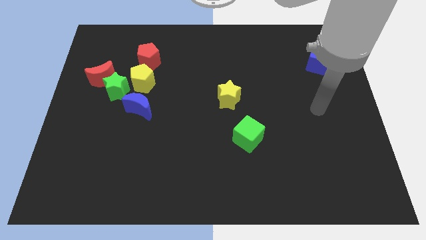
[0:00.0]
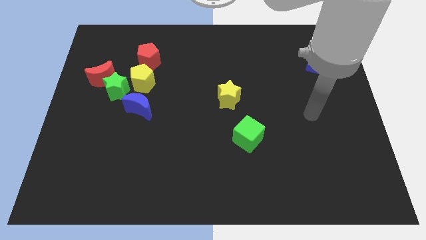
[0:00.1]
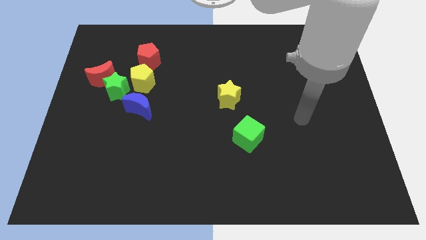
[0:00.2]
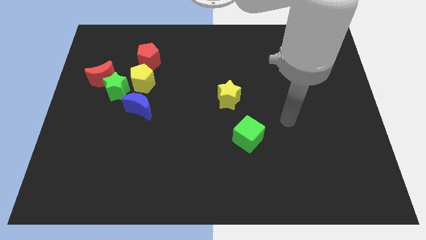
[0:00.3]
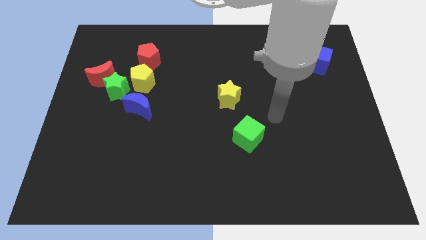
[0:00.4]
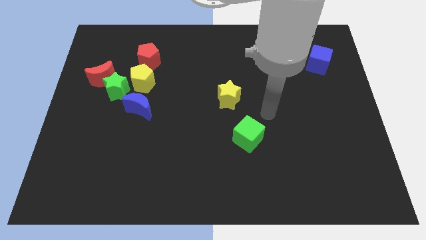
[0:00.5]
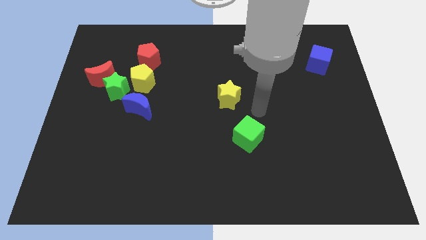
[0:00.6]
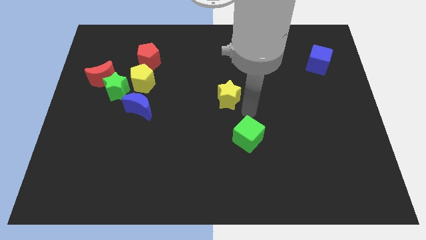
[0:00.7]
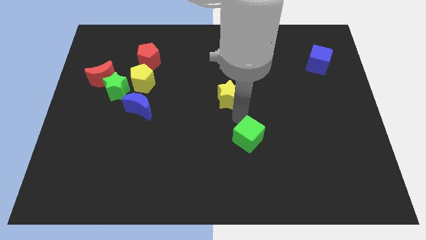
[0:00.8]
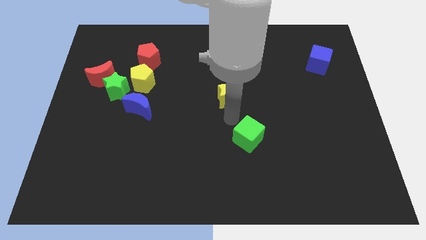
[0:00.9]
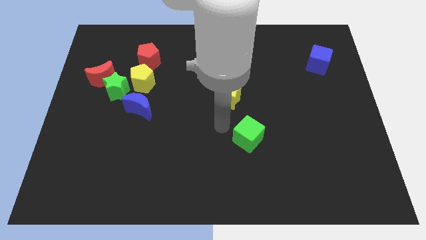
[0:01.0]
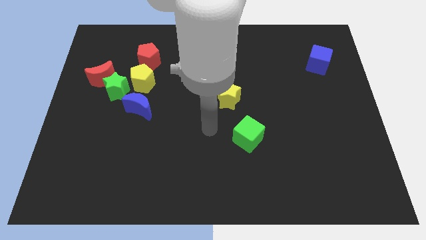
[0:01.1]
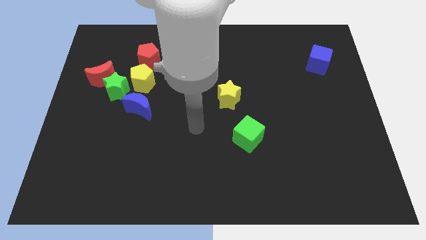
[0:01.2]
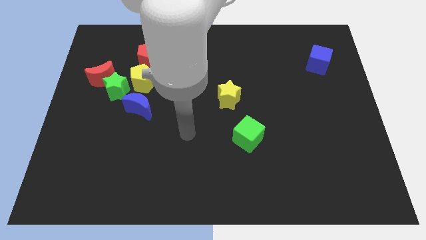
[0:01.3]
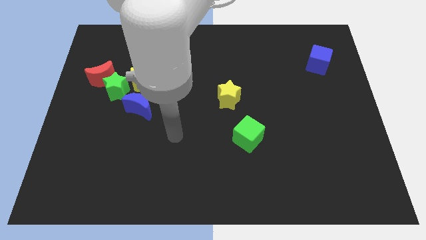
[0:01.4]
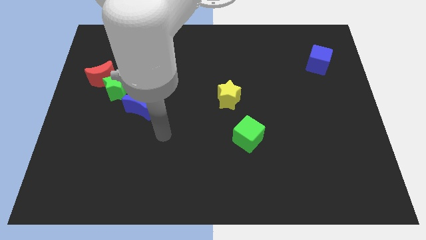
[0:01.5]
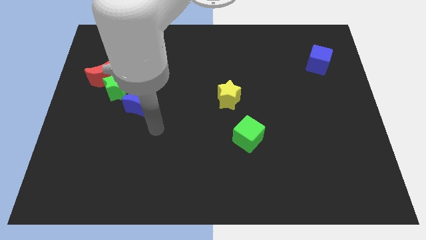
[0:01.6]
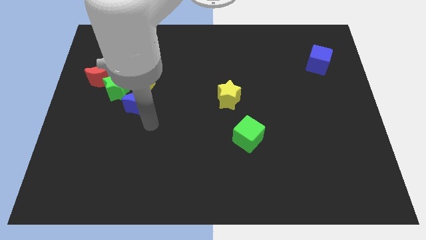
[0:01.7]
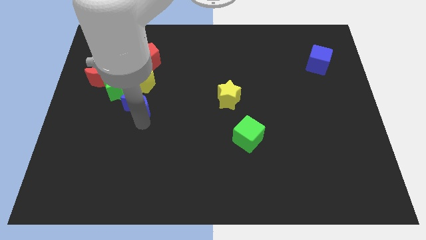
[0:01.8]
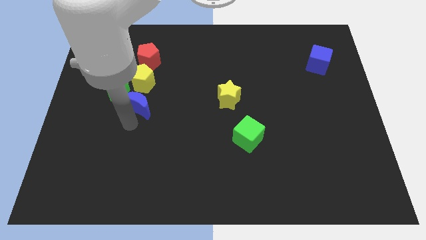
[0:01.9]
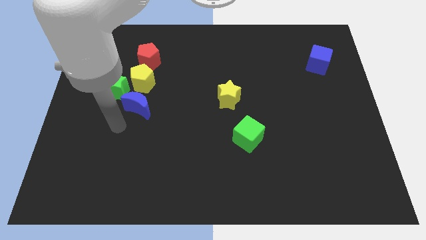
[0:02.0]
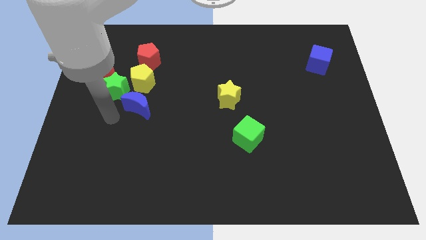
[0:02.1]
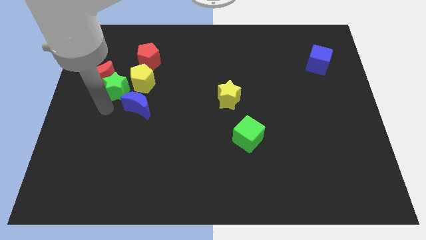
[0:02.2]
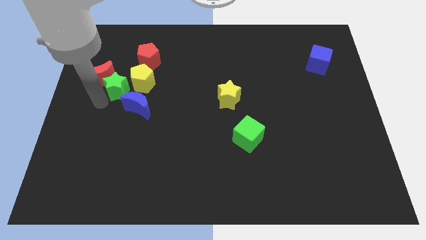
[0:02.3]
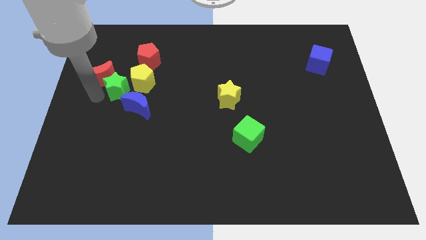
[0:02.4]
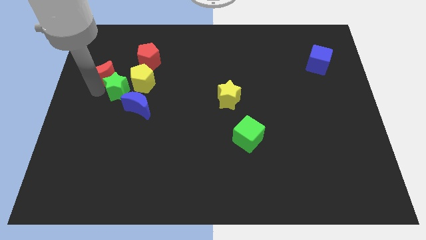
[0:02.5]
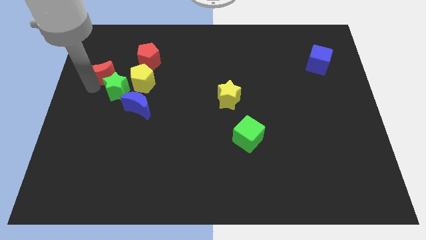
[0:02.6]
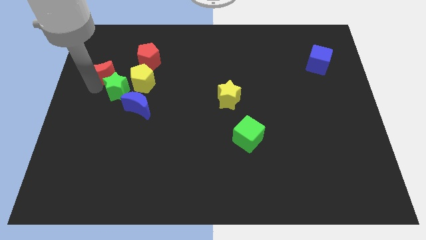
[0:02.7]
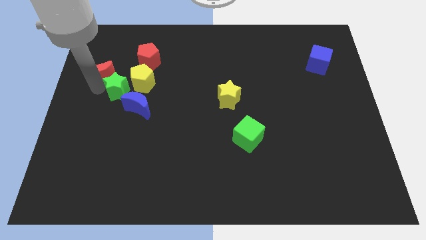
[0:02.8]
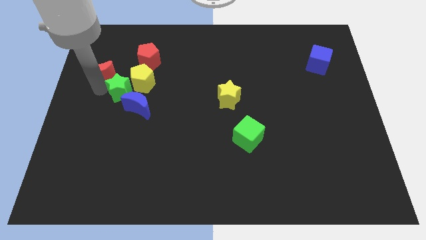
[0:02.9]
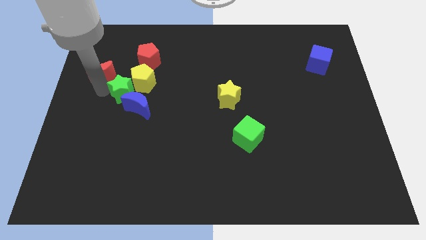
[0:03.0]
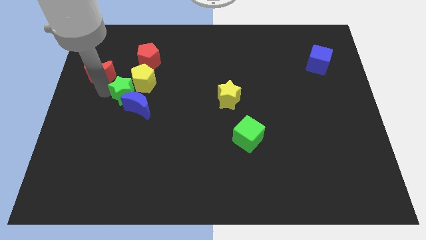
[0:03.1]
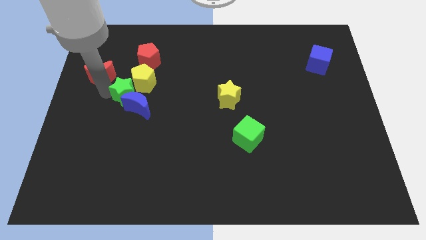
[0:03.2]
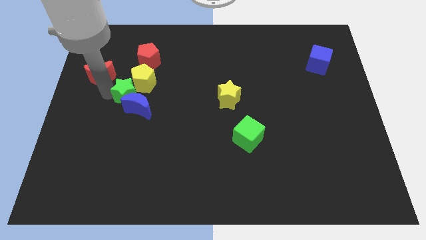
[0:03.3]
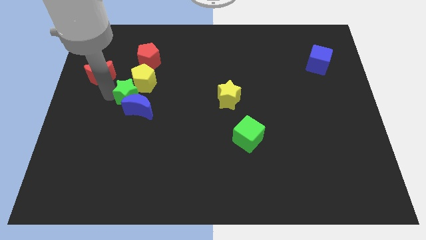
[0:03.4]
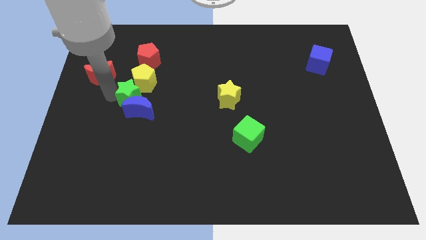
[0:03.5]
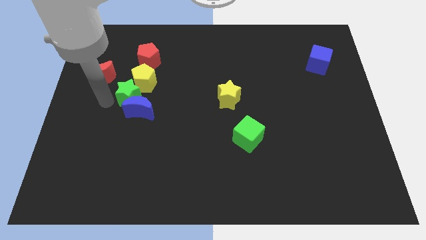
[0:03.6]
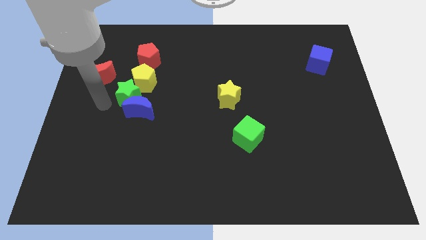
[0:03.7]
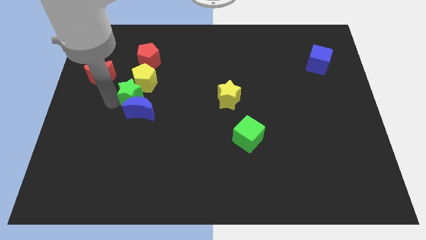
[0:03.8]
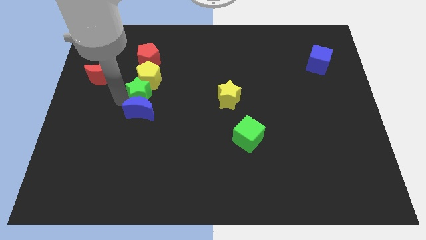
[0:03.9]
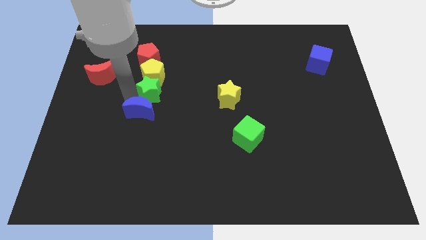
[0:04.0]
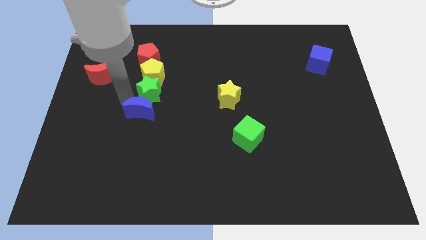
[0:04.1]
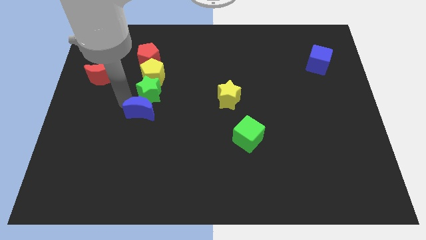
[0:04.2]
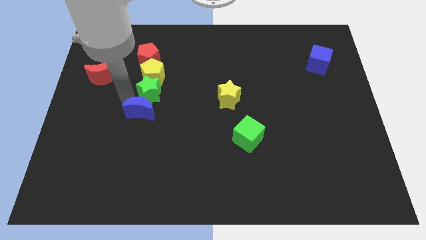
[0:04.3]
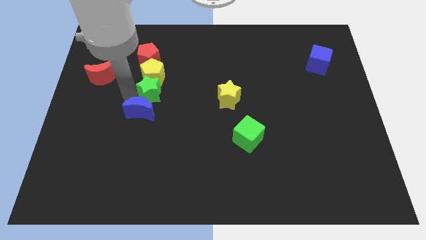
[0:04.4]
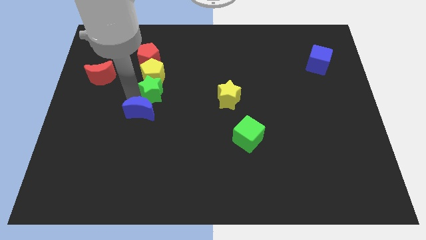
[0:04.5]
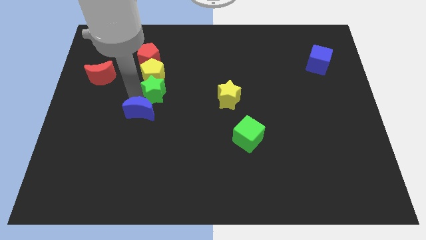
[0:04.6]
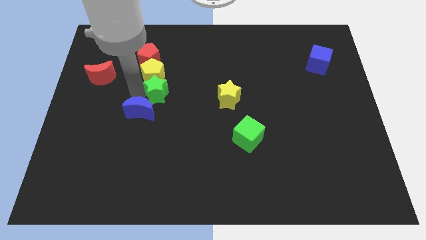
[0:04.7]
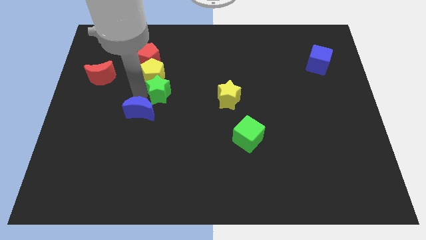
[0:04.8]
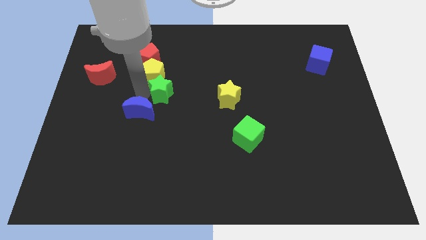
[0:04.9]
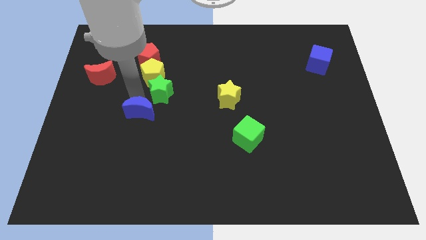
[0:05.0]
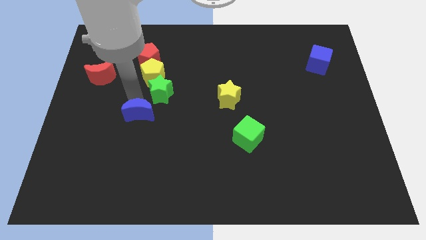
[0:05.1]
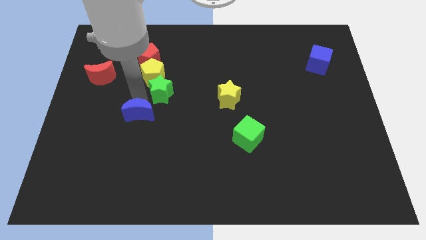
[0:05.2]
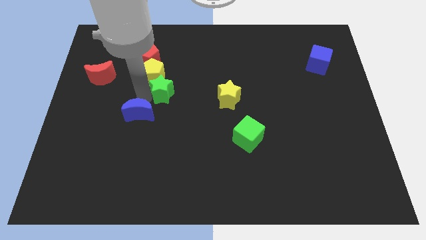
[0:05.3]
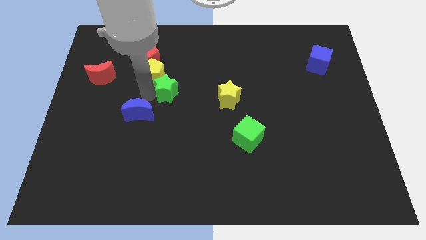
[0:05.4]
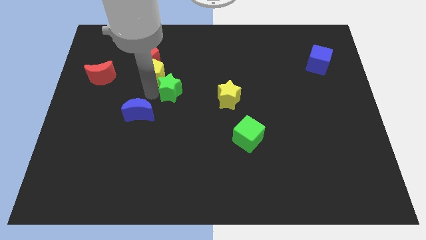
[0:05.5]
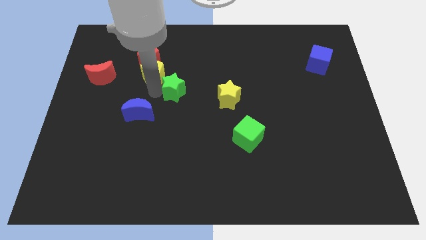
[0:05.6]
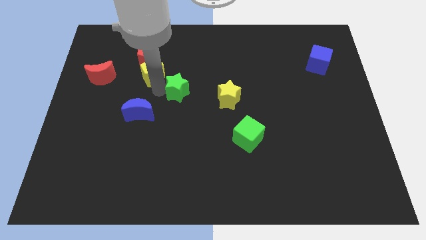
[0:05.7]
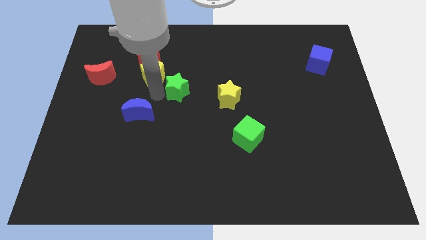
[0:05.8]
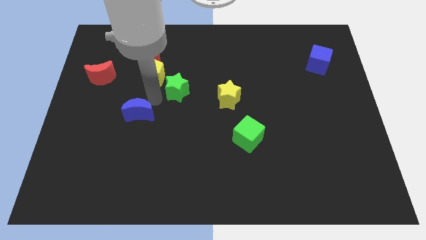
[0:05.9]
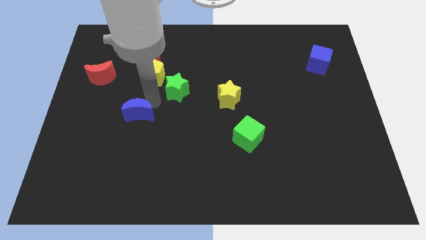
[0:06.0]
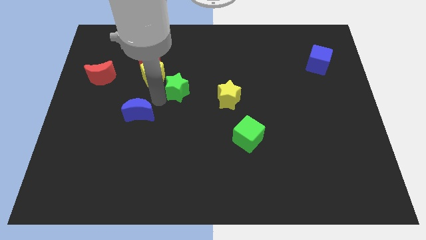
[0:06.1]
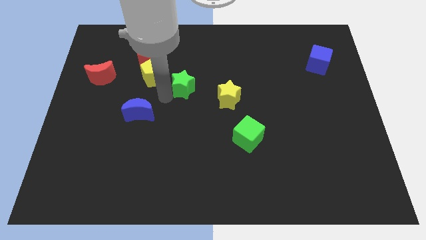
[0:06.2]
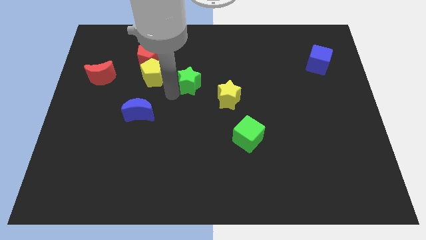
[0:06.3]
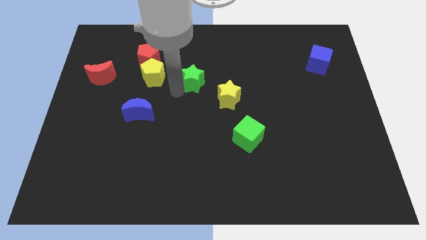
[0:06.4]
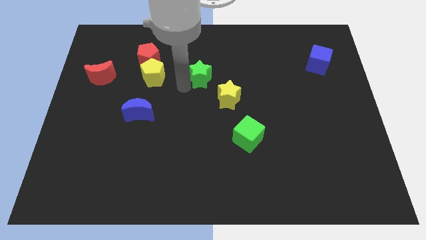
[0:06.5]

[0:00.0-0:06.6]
push the green star right

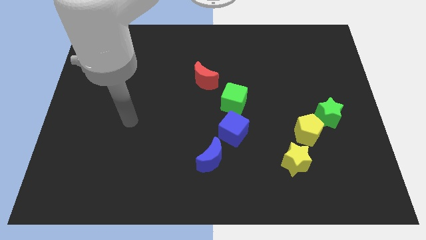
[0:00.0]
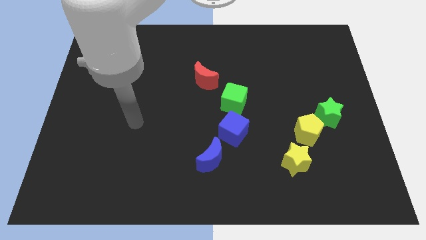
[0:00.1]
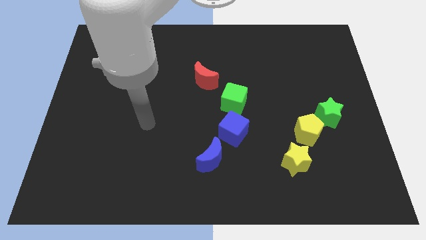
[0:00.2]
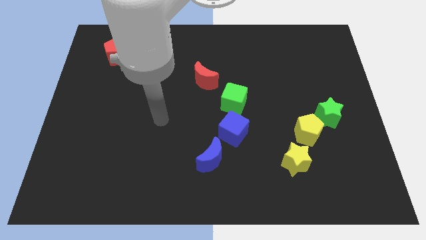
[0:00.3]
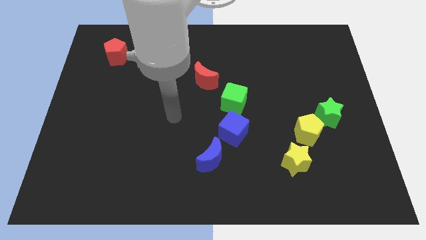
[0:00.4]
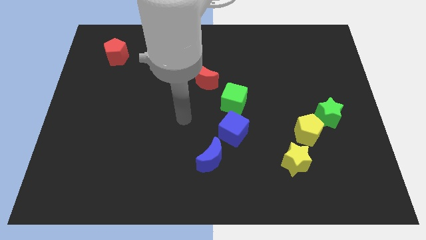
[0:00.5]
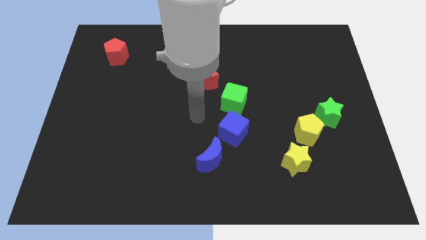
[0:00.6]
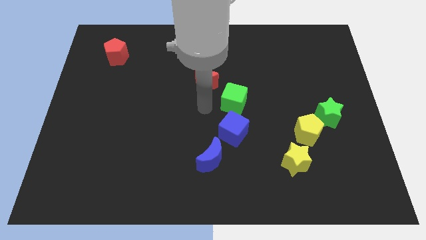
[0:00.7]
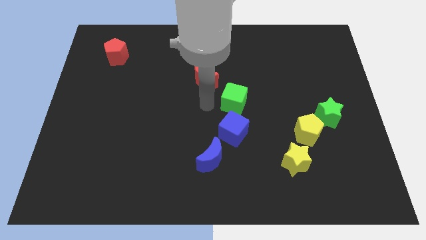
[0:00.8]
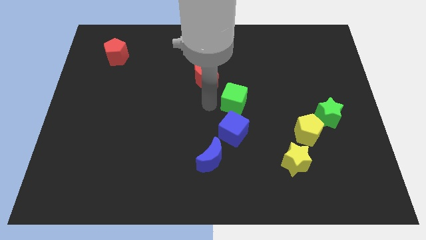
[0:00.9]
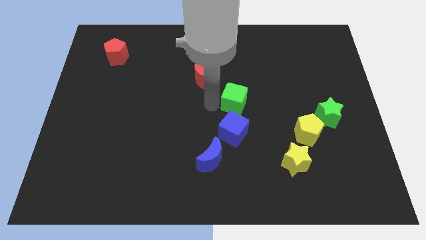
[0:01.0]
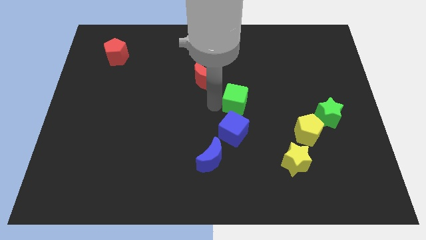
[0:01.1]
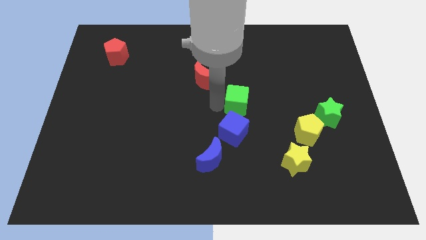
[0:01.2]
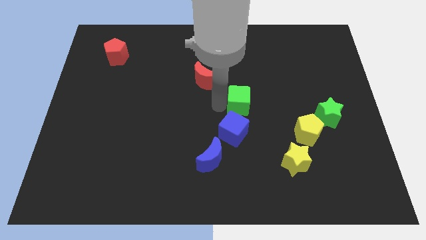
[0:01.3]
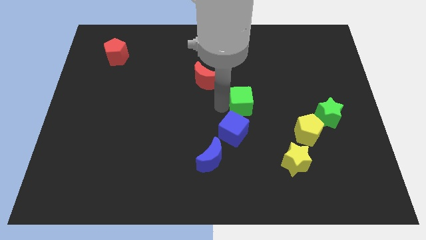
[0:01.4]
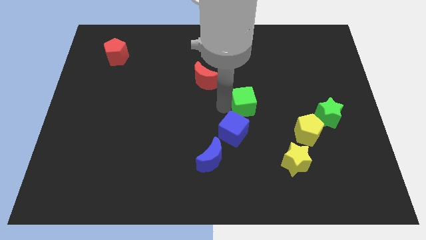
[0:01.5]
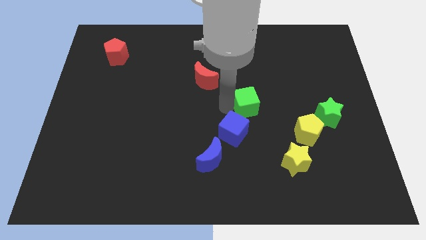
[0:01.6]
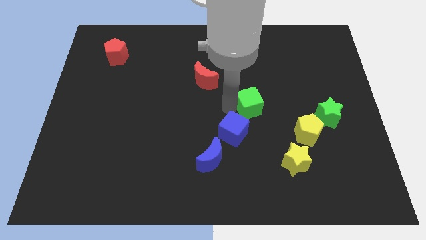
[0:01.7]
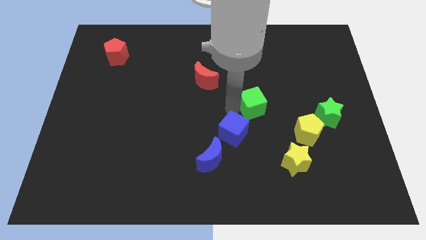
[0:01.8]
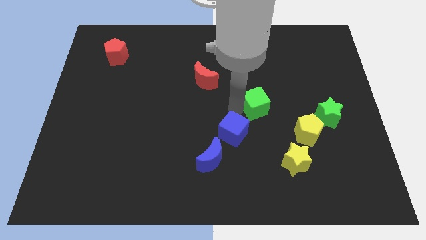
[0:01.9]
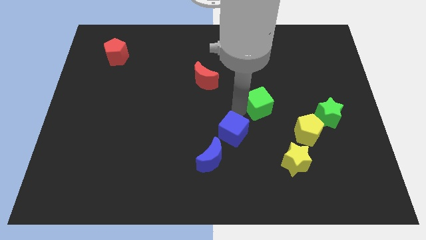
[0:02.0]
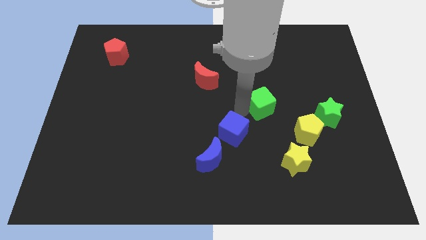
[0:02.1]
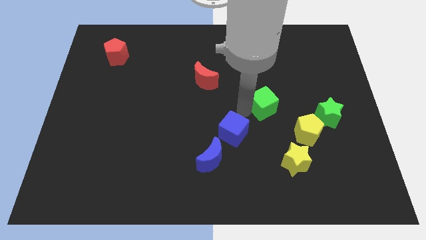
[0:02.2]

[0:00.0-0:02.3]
move the green cube to the right a little bit
